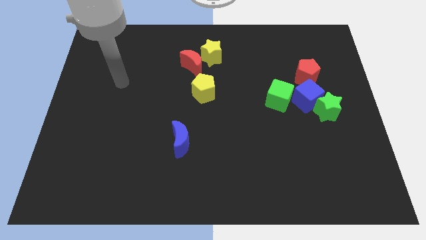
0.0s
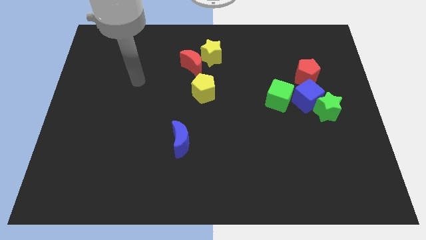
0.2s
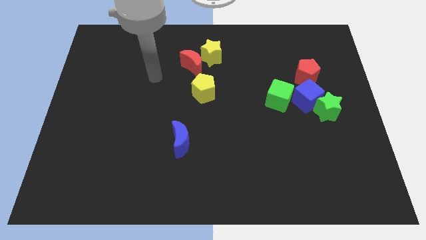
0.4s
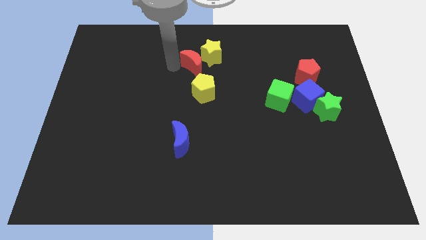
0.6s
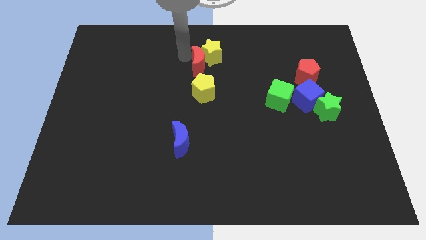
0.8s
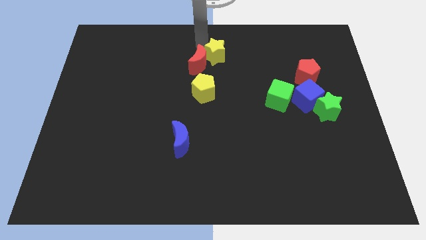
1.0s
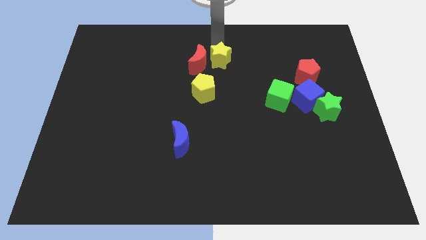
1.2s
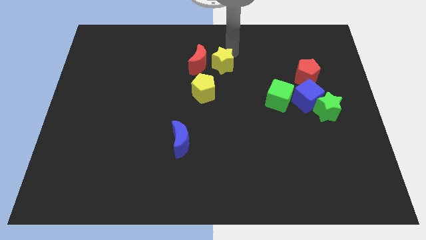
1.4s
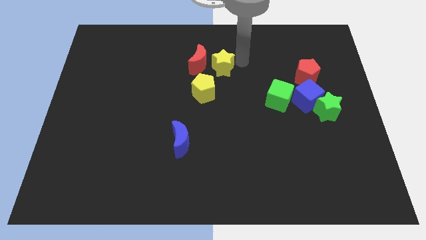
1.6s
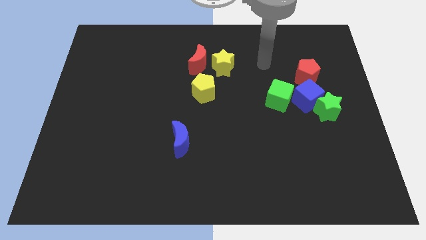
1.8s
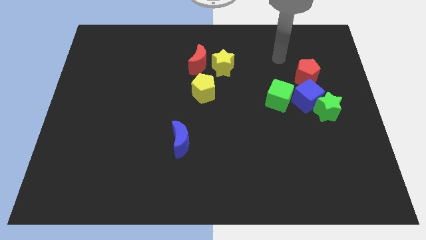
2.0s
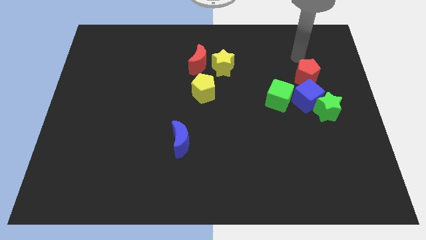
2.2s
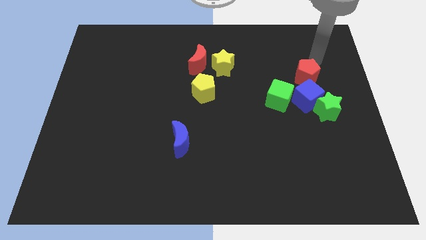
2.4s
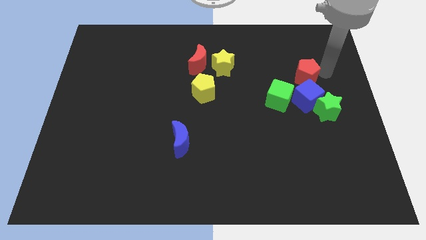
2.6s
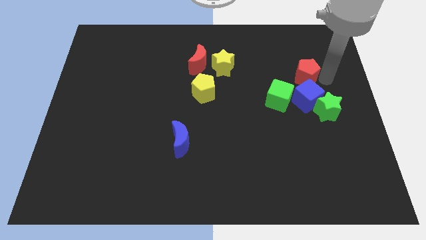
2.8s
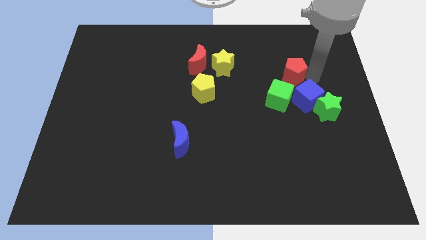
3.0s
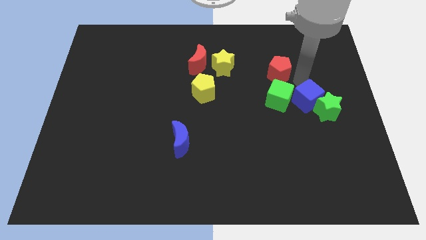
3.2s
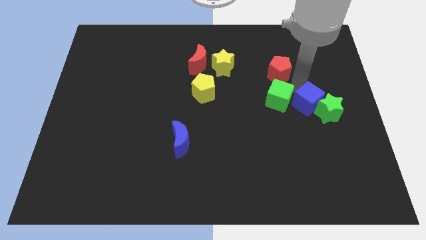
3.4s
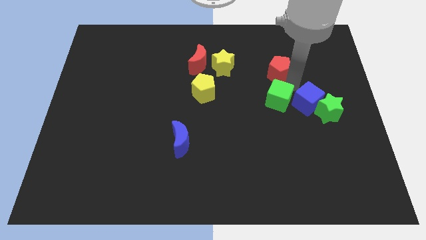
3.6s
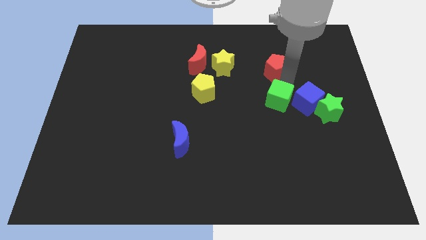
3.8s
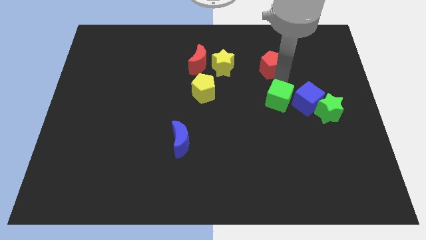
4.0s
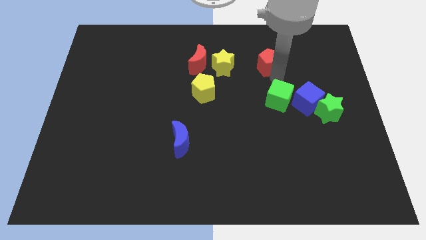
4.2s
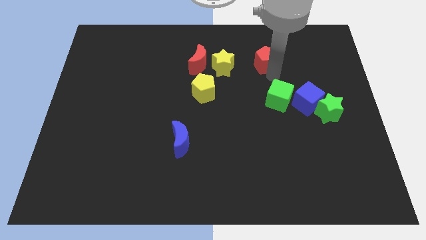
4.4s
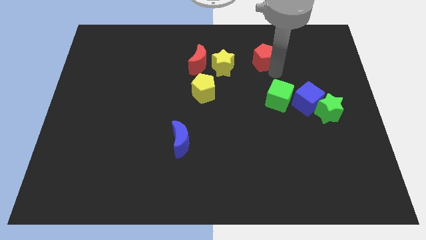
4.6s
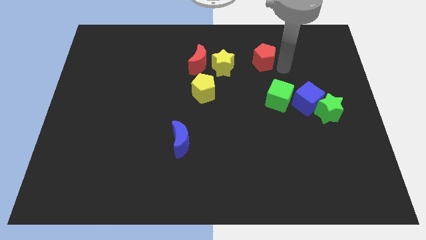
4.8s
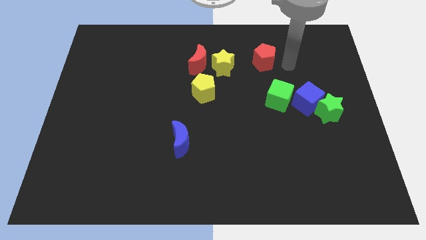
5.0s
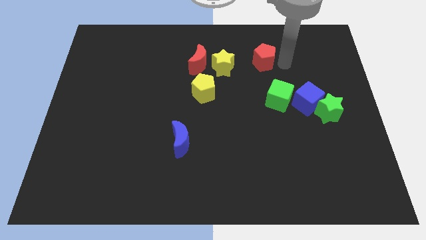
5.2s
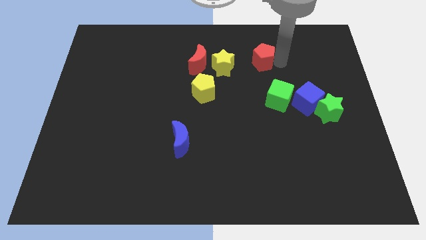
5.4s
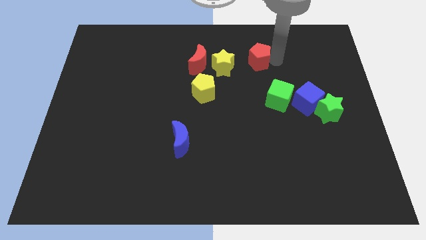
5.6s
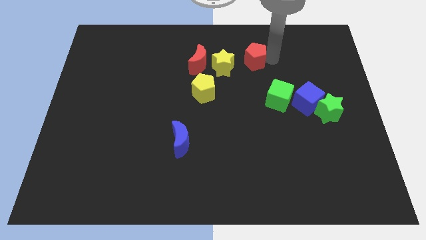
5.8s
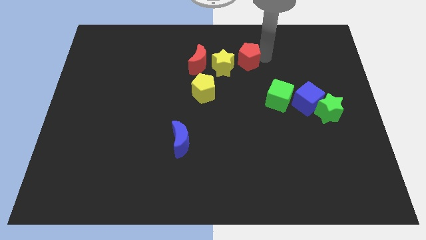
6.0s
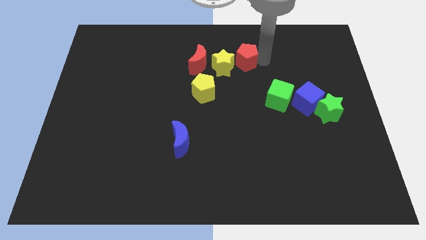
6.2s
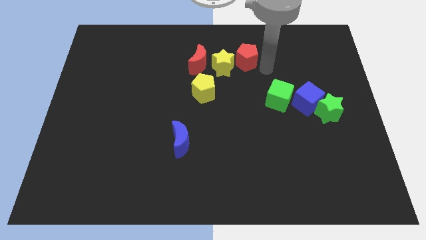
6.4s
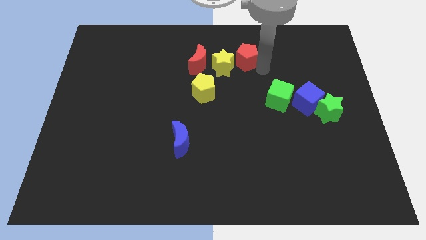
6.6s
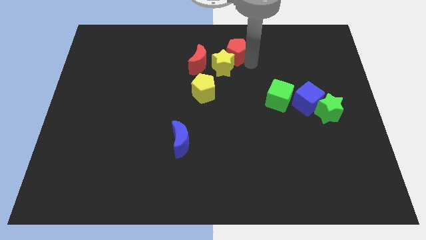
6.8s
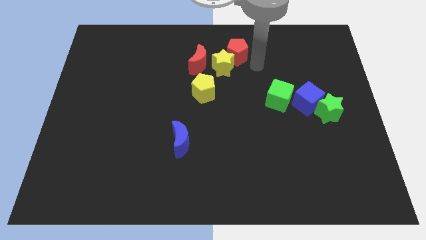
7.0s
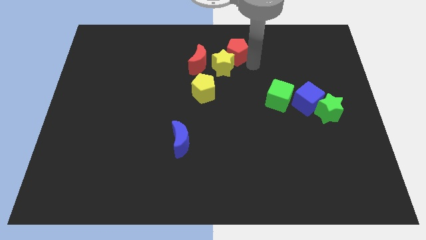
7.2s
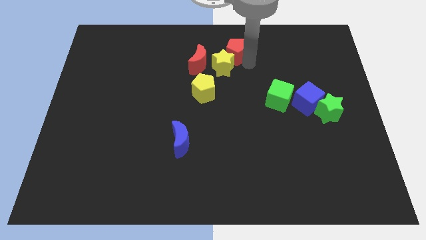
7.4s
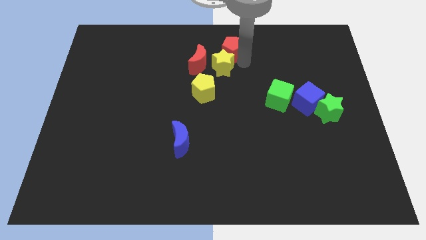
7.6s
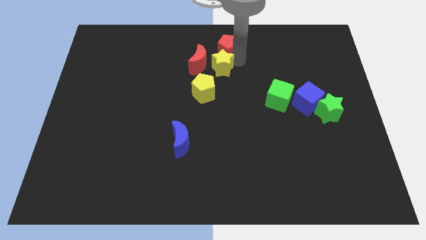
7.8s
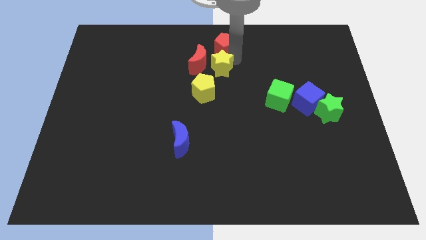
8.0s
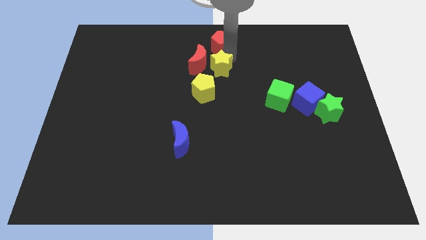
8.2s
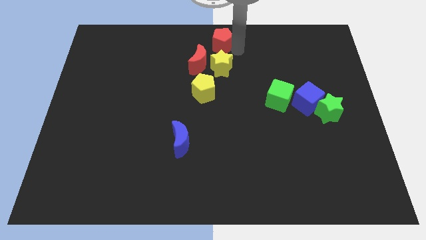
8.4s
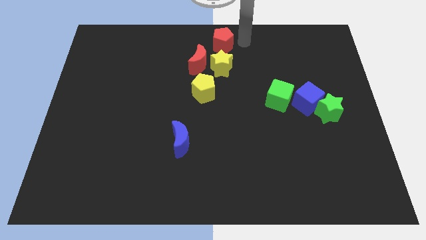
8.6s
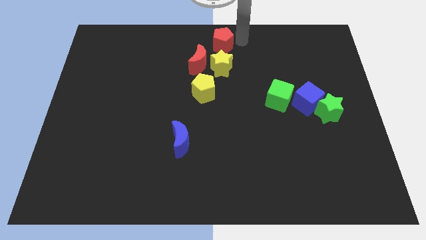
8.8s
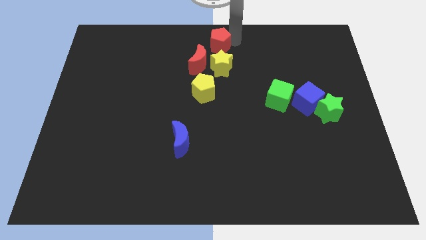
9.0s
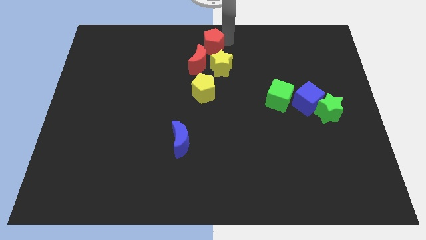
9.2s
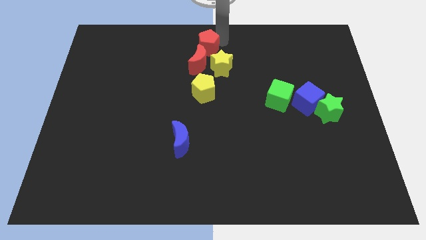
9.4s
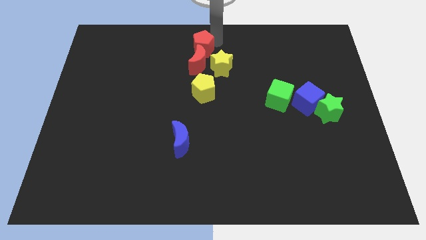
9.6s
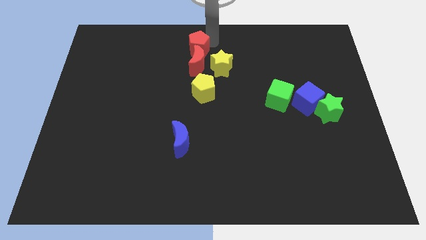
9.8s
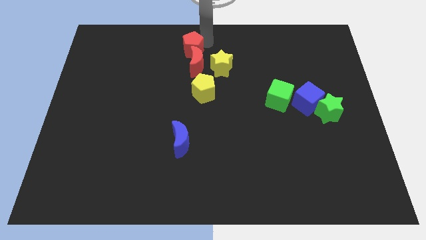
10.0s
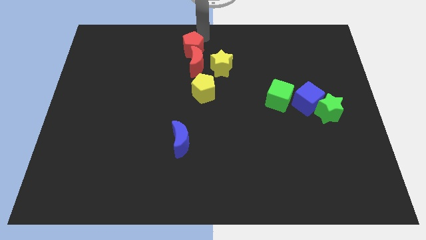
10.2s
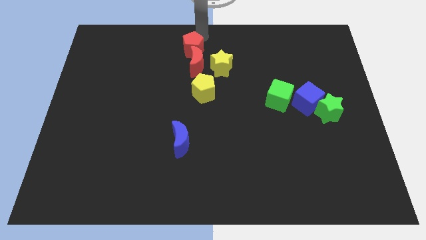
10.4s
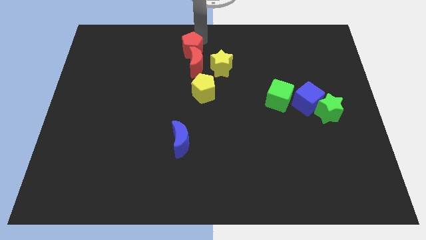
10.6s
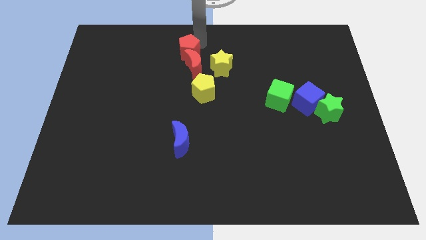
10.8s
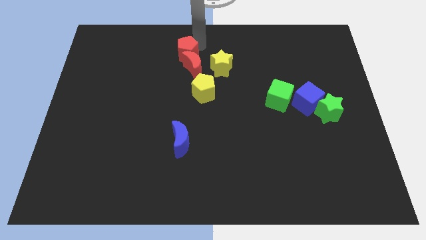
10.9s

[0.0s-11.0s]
move the red pentagon to the left side of the yellow star

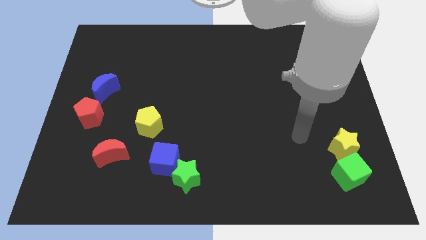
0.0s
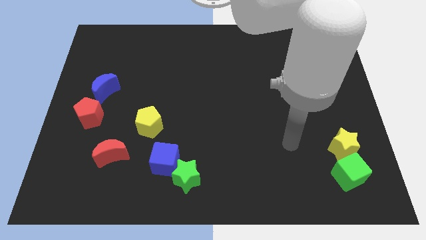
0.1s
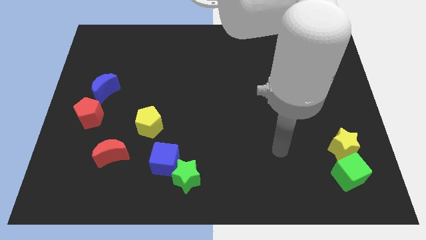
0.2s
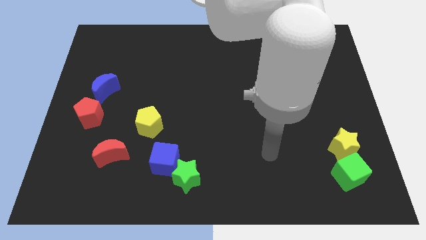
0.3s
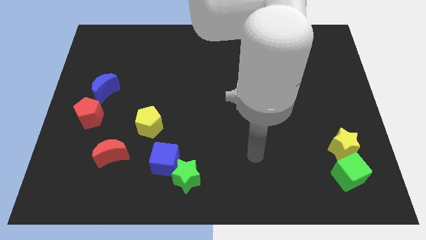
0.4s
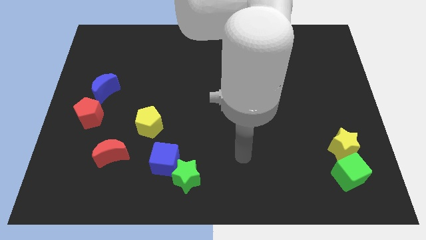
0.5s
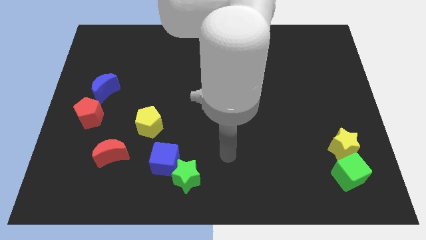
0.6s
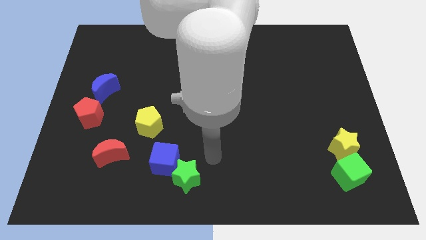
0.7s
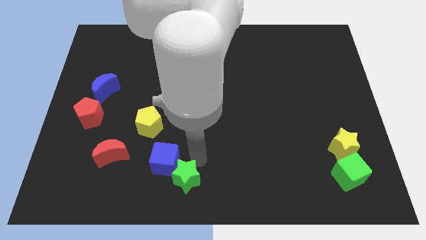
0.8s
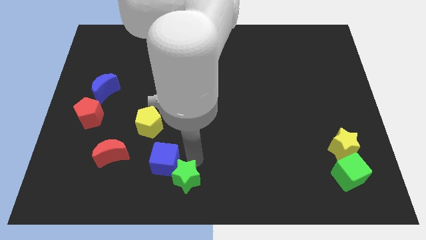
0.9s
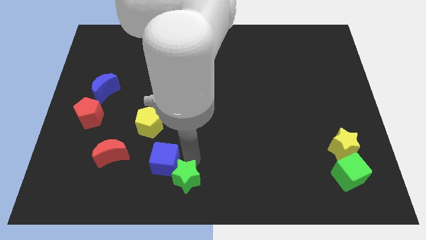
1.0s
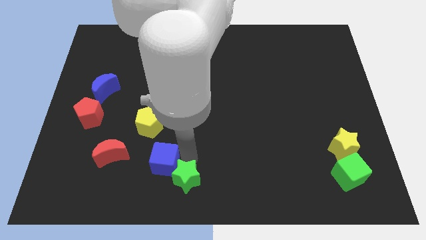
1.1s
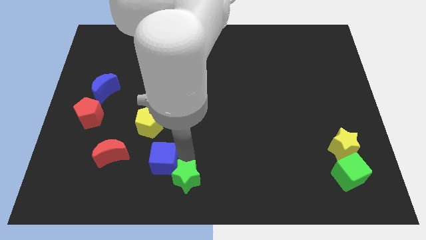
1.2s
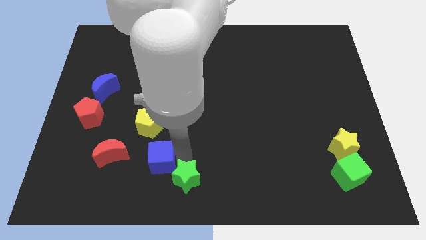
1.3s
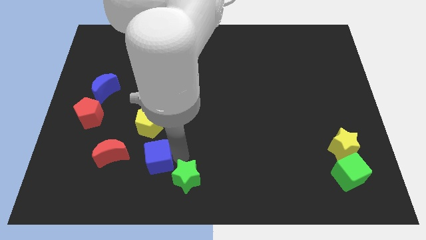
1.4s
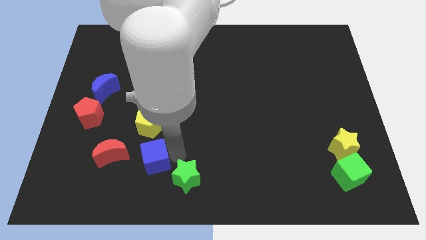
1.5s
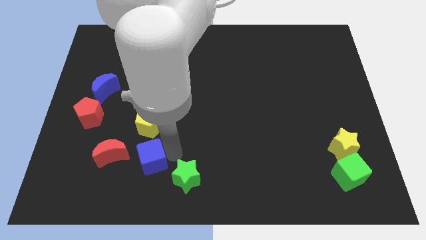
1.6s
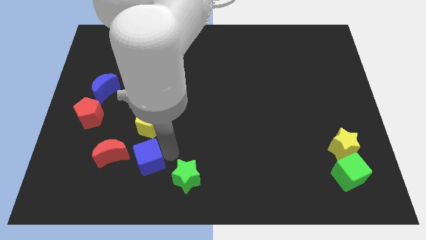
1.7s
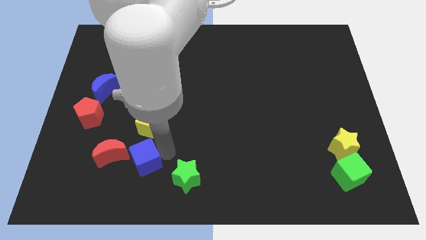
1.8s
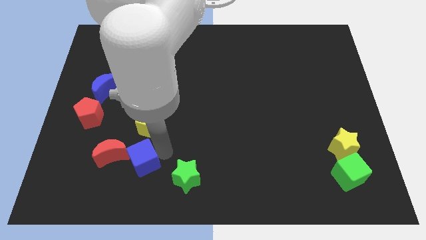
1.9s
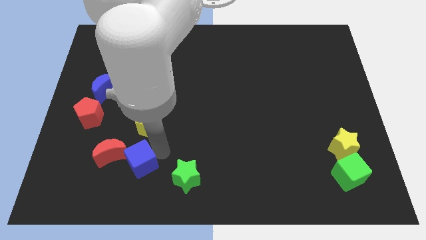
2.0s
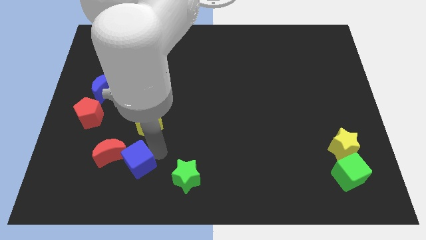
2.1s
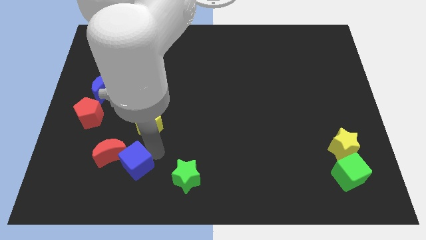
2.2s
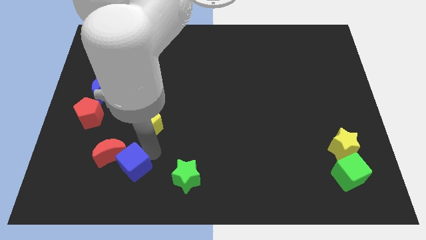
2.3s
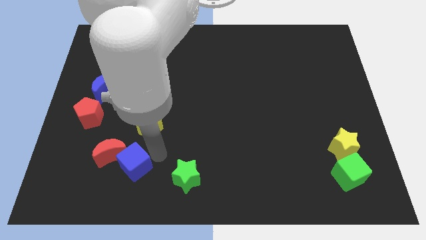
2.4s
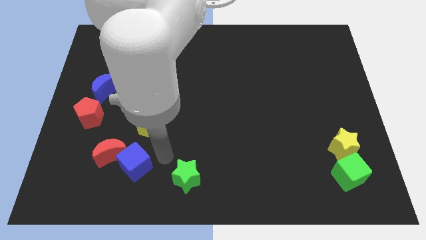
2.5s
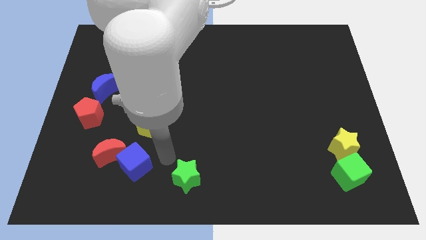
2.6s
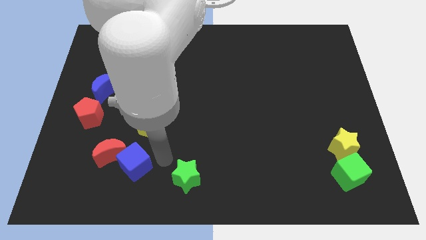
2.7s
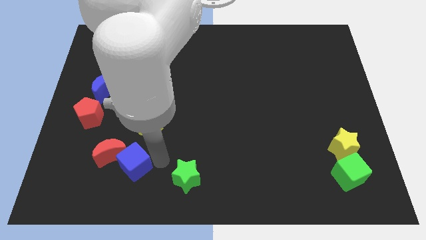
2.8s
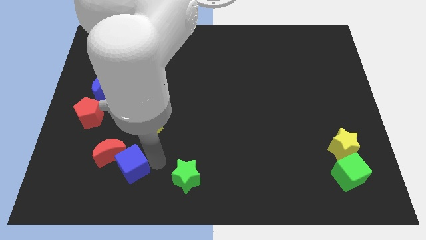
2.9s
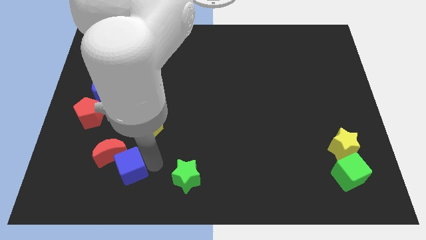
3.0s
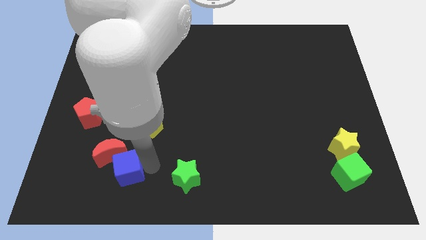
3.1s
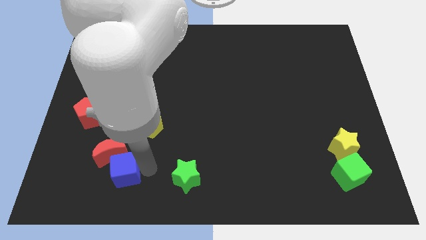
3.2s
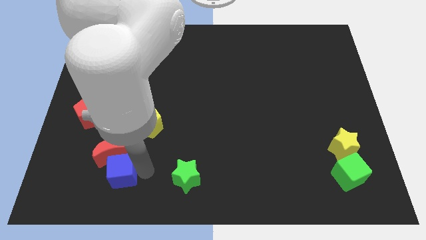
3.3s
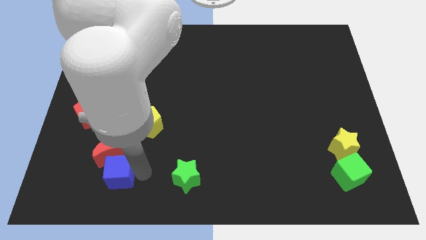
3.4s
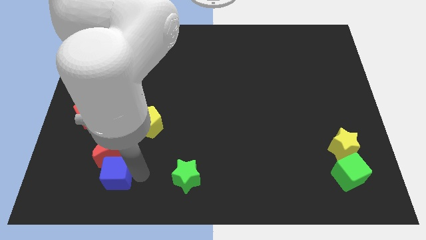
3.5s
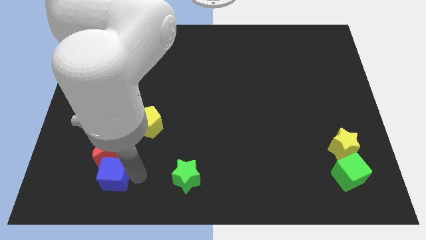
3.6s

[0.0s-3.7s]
push the blue cube to the bottom left side of the red moon
